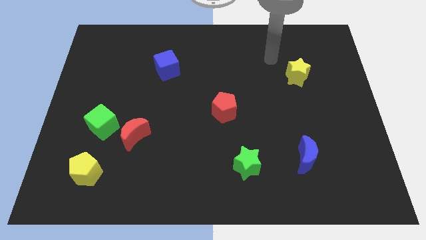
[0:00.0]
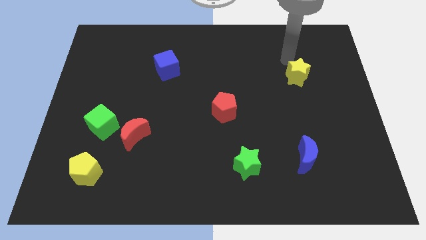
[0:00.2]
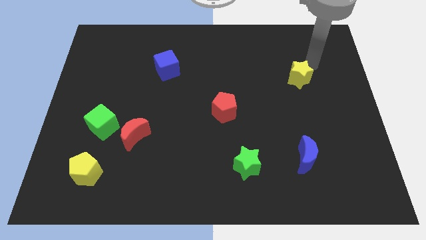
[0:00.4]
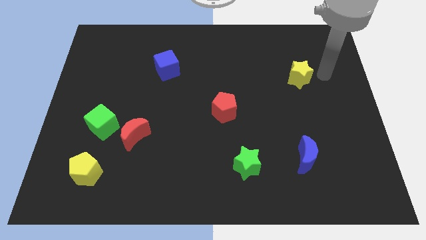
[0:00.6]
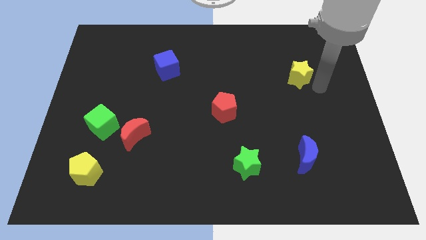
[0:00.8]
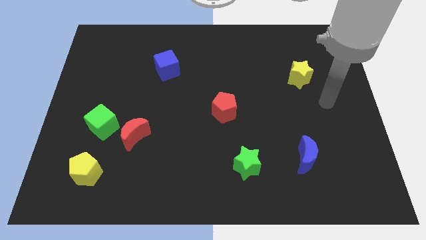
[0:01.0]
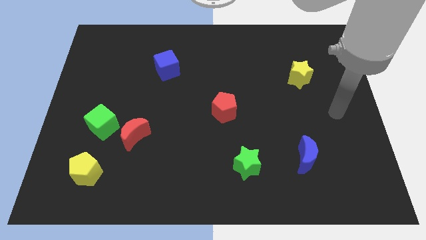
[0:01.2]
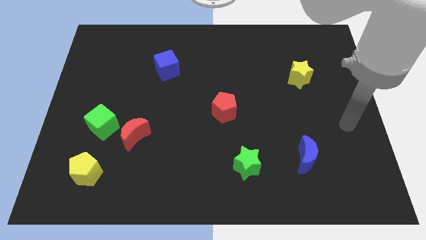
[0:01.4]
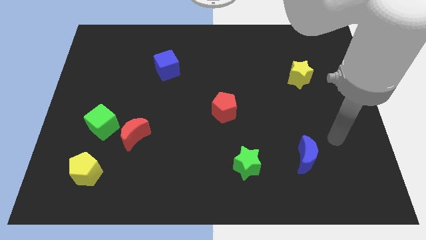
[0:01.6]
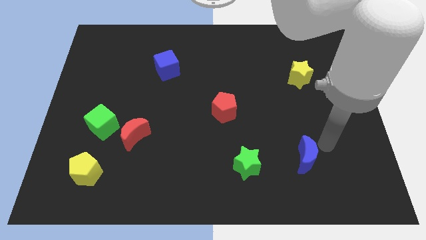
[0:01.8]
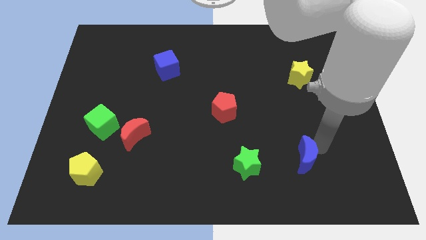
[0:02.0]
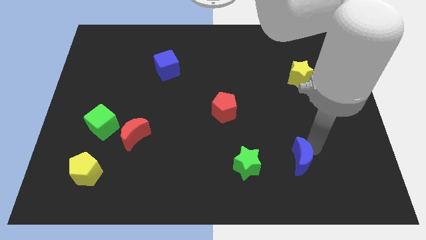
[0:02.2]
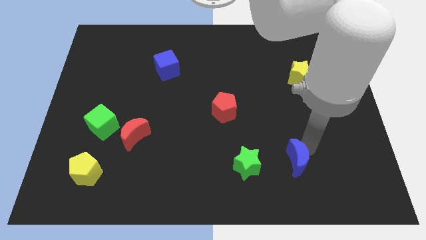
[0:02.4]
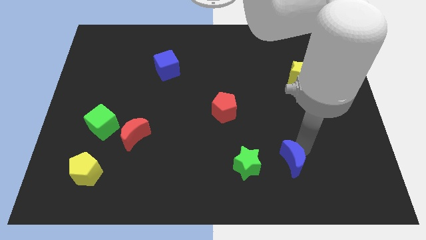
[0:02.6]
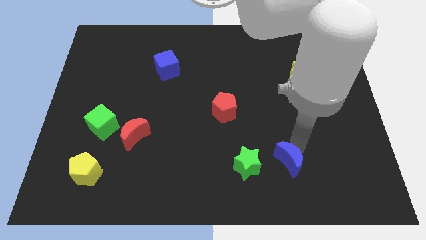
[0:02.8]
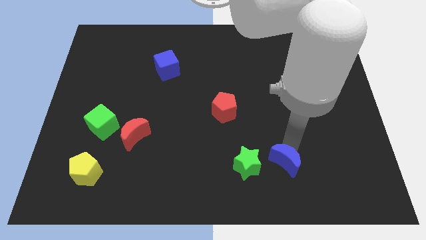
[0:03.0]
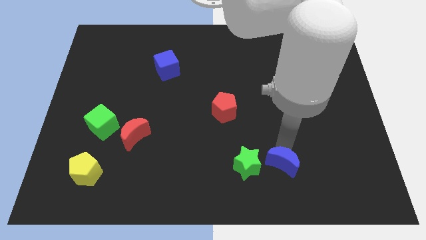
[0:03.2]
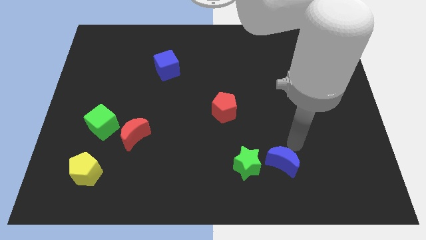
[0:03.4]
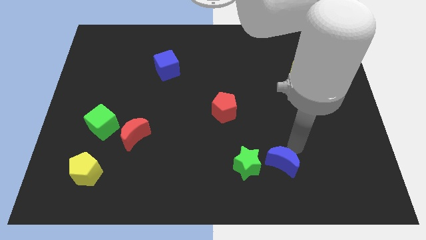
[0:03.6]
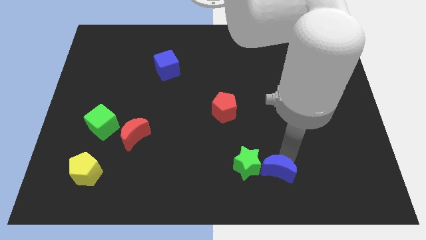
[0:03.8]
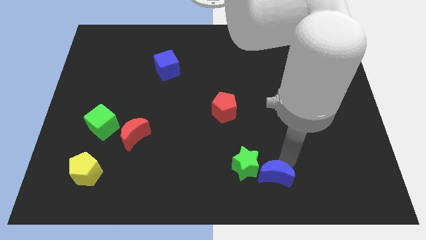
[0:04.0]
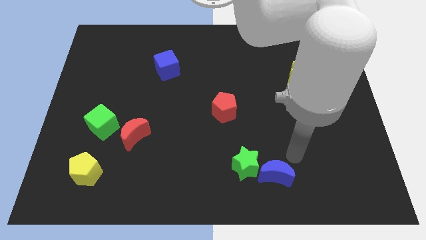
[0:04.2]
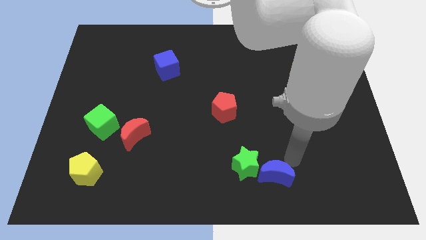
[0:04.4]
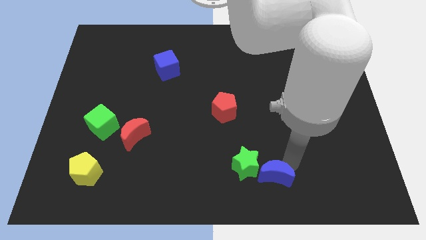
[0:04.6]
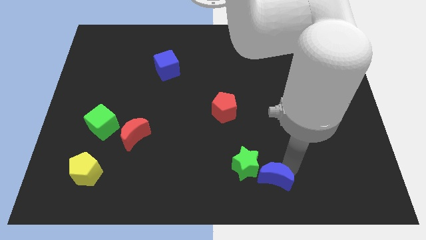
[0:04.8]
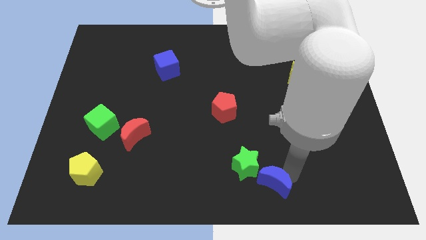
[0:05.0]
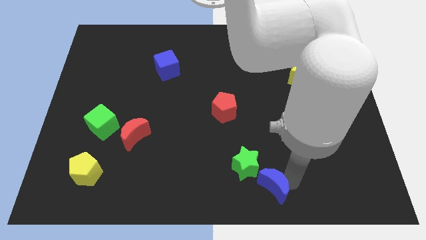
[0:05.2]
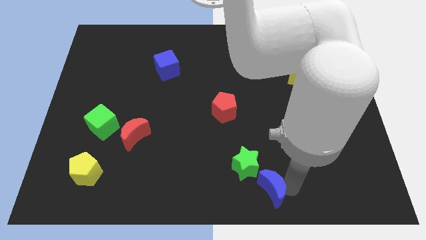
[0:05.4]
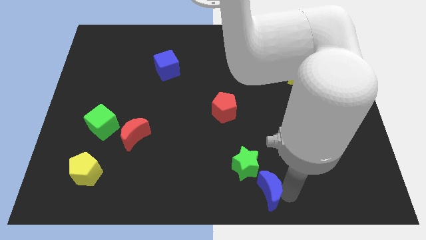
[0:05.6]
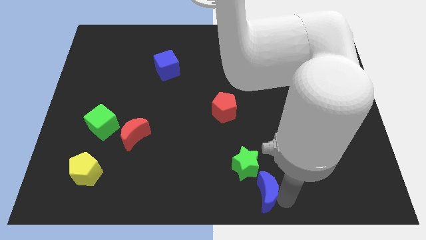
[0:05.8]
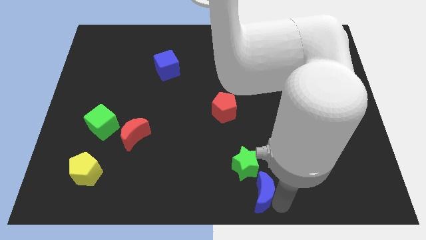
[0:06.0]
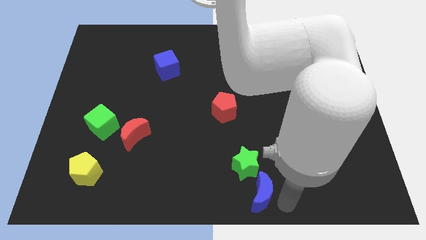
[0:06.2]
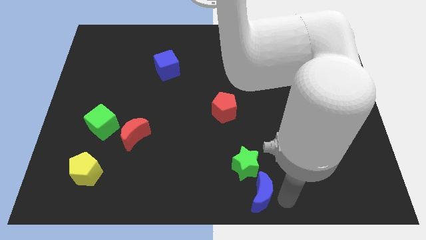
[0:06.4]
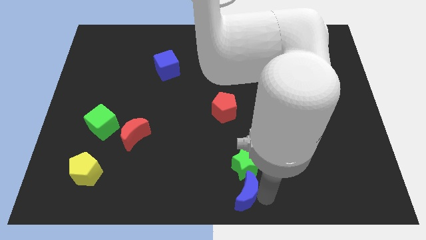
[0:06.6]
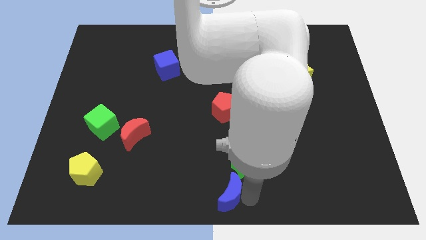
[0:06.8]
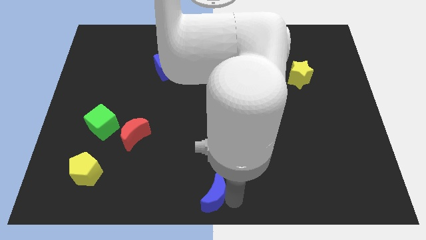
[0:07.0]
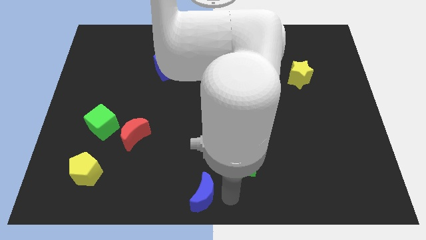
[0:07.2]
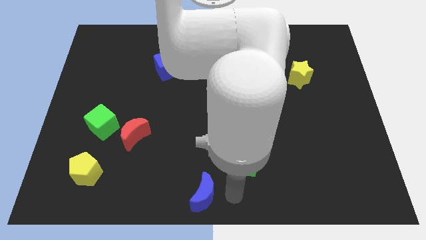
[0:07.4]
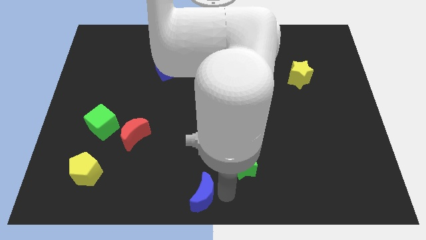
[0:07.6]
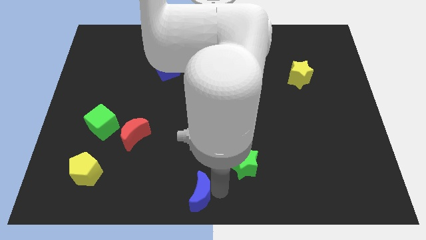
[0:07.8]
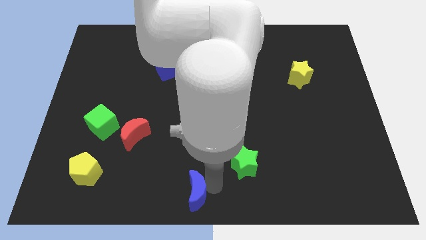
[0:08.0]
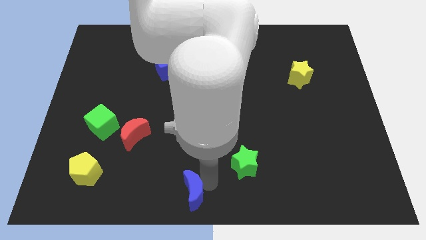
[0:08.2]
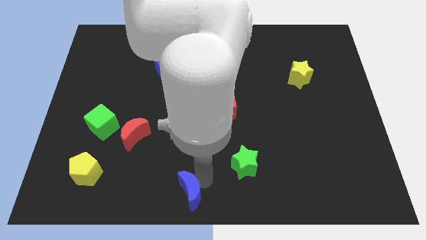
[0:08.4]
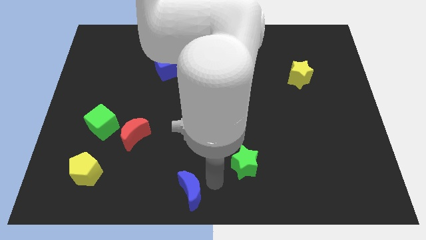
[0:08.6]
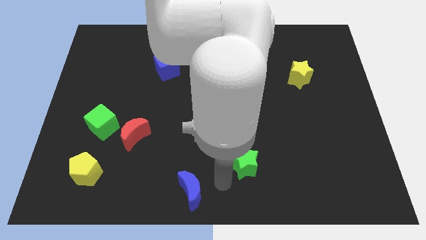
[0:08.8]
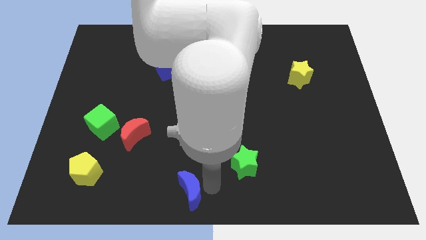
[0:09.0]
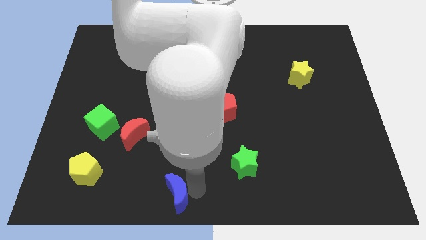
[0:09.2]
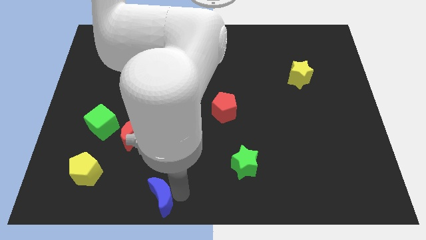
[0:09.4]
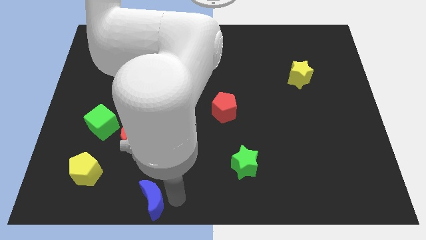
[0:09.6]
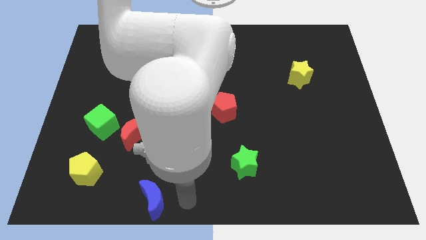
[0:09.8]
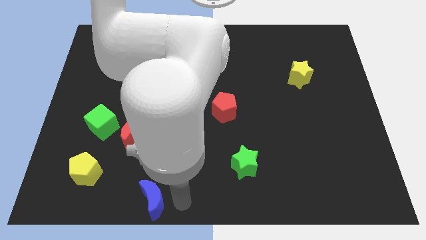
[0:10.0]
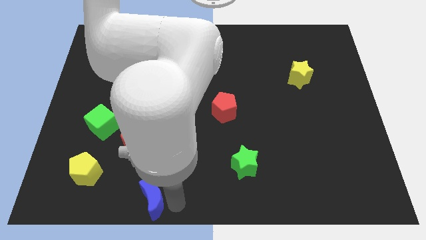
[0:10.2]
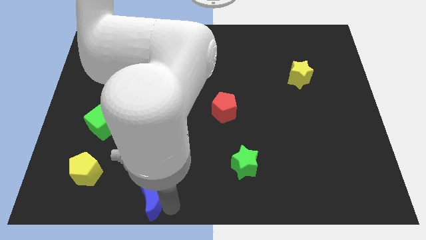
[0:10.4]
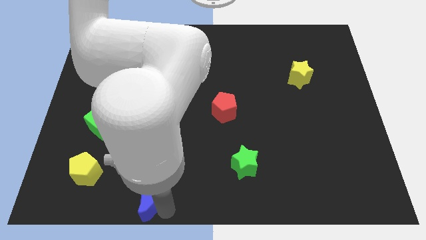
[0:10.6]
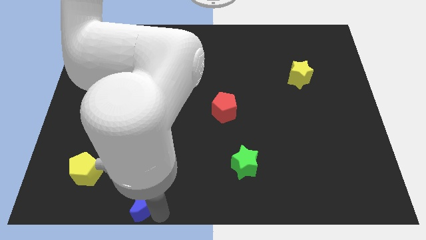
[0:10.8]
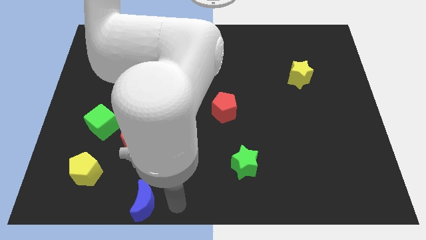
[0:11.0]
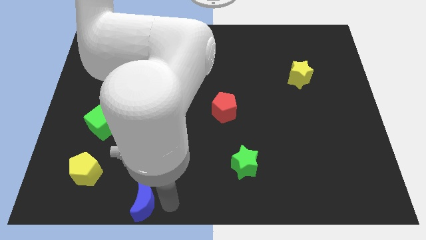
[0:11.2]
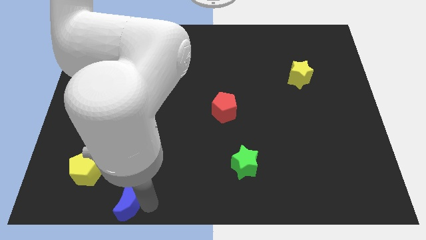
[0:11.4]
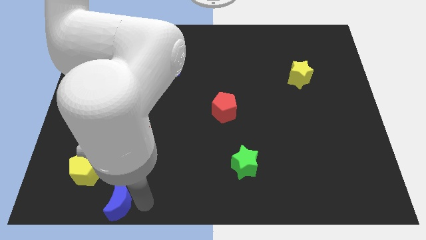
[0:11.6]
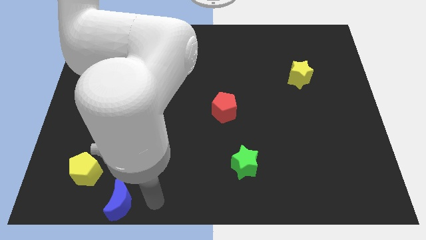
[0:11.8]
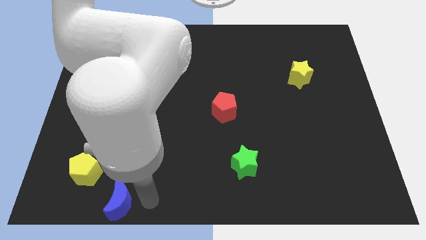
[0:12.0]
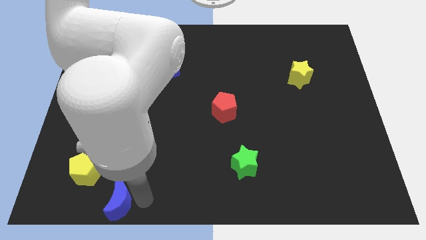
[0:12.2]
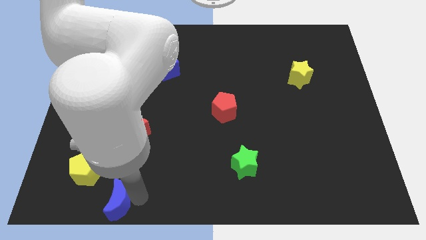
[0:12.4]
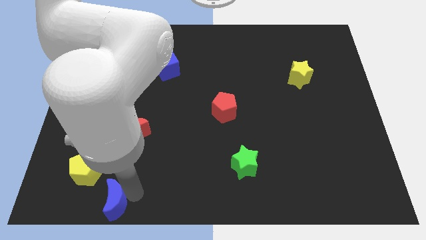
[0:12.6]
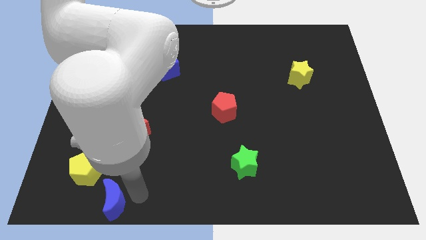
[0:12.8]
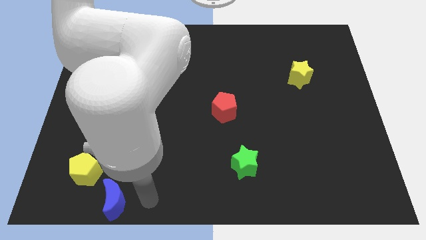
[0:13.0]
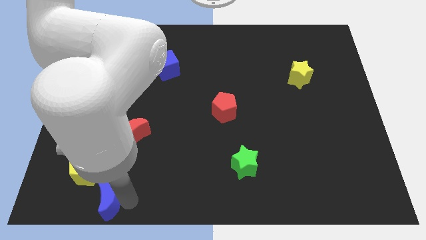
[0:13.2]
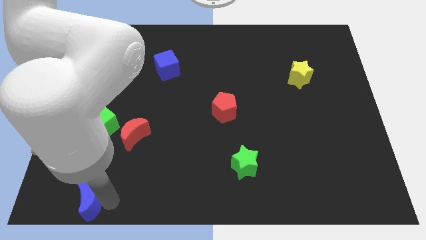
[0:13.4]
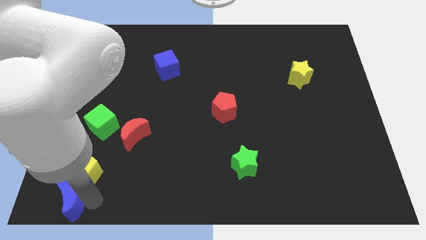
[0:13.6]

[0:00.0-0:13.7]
slide the blue moon to the lower left corner
